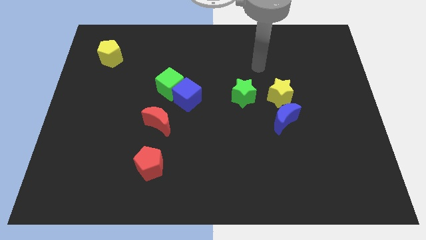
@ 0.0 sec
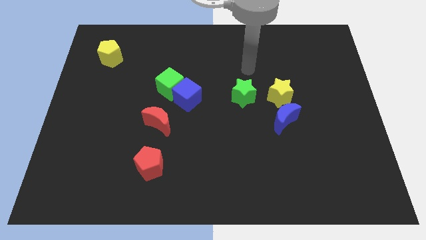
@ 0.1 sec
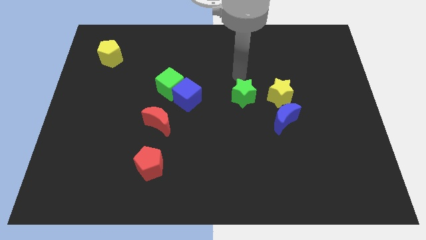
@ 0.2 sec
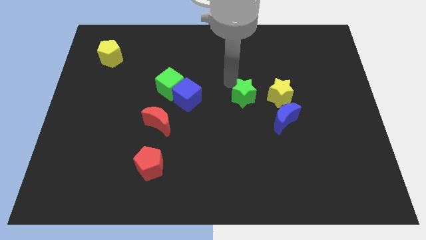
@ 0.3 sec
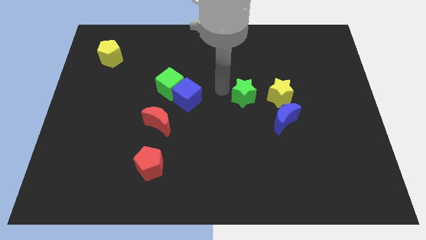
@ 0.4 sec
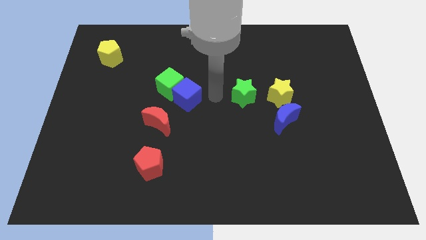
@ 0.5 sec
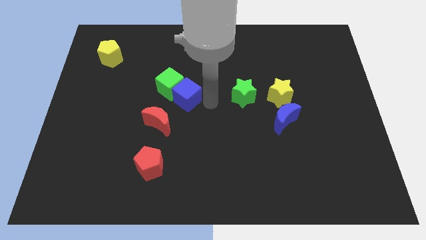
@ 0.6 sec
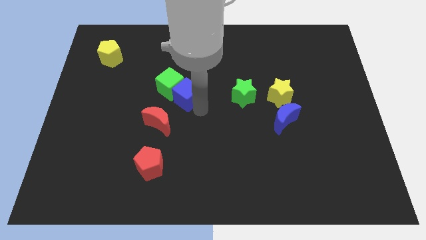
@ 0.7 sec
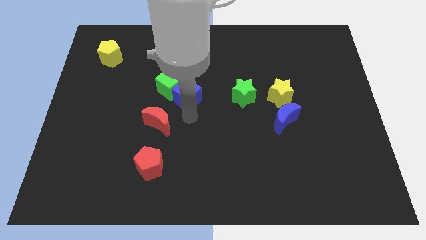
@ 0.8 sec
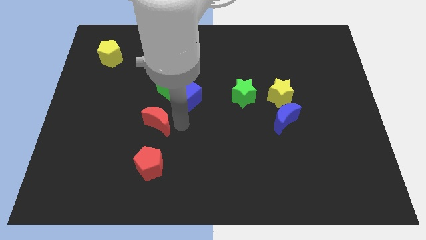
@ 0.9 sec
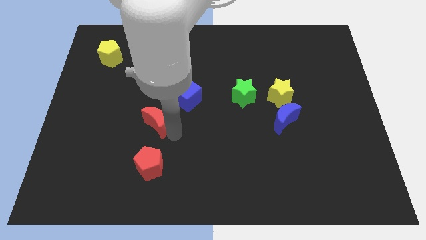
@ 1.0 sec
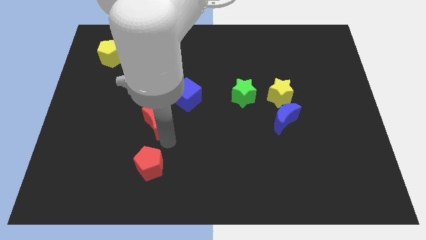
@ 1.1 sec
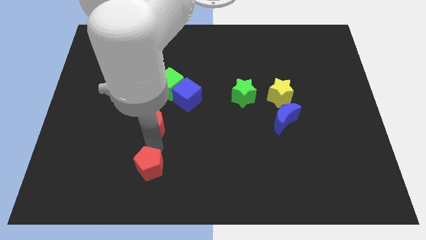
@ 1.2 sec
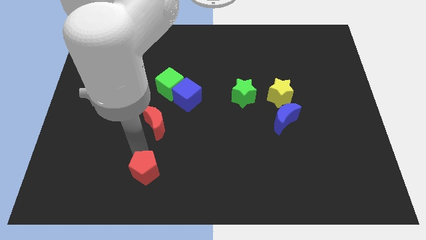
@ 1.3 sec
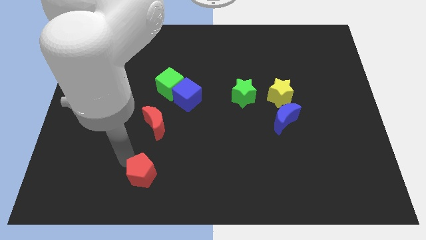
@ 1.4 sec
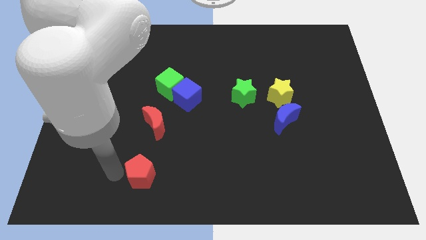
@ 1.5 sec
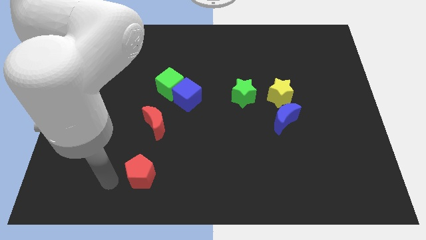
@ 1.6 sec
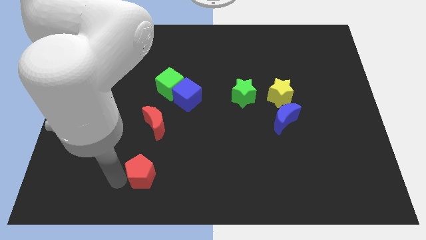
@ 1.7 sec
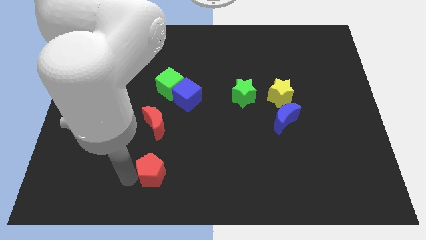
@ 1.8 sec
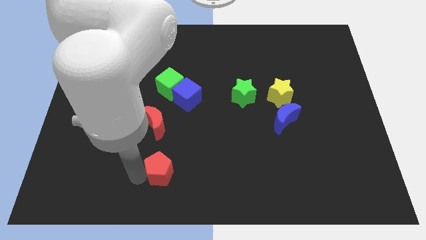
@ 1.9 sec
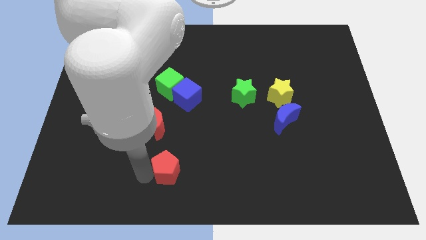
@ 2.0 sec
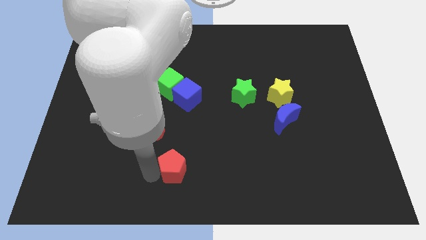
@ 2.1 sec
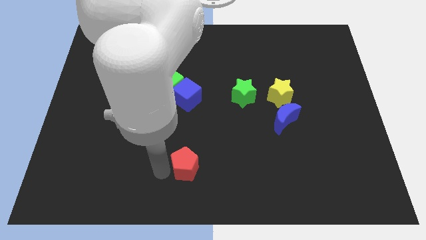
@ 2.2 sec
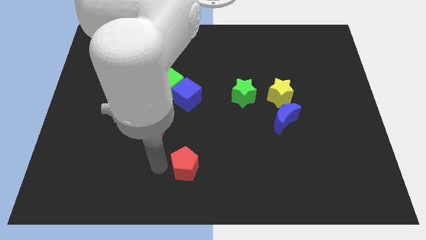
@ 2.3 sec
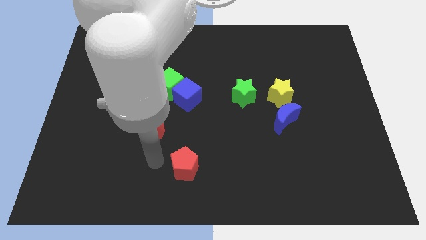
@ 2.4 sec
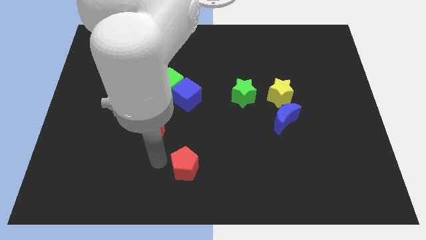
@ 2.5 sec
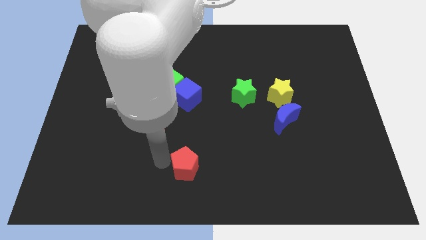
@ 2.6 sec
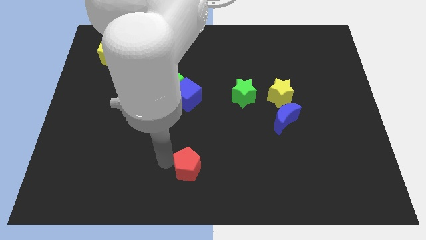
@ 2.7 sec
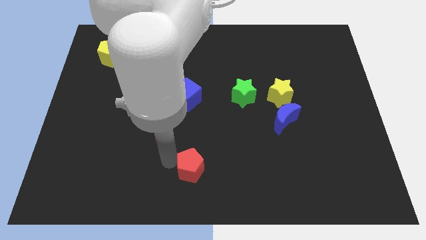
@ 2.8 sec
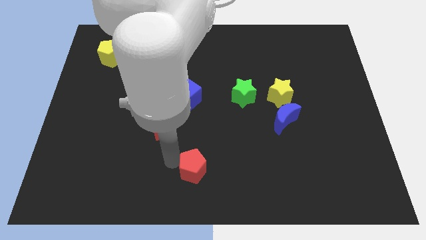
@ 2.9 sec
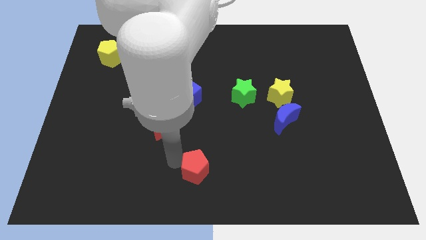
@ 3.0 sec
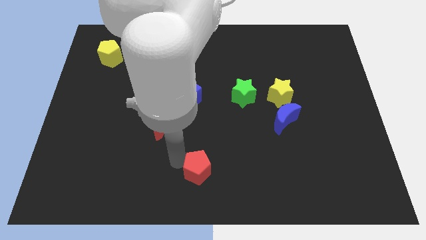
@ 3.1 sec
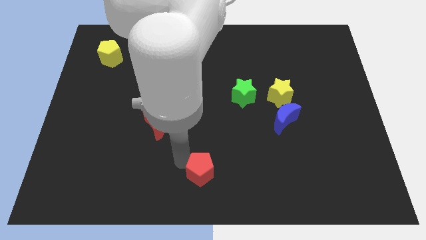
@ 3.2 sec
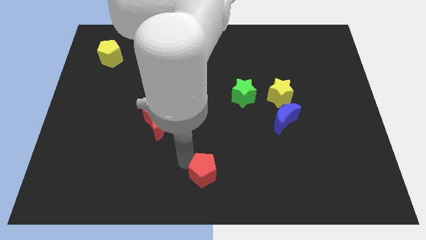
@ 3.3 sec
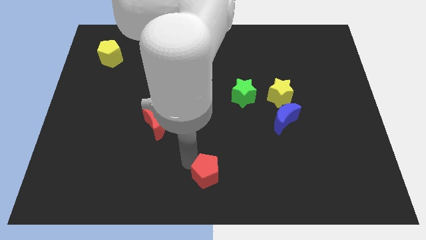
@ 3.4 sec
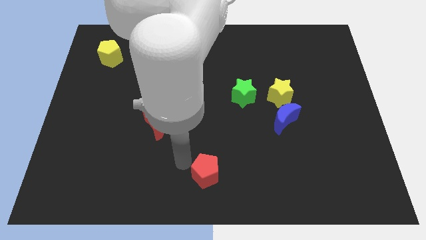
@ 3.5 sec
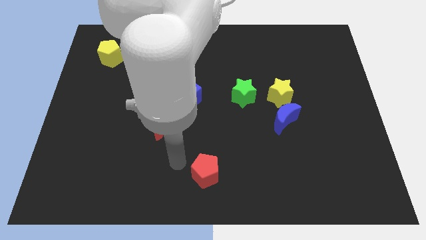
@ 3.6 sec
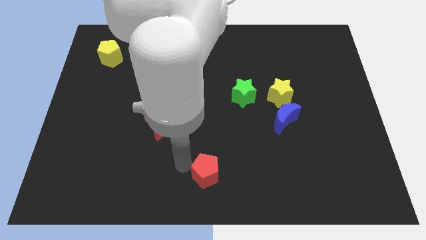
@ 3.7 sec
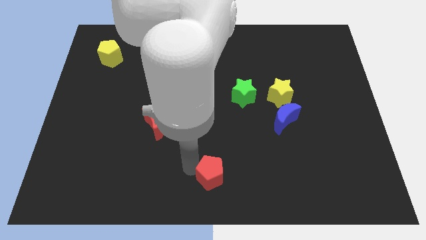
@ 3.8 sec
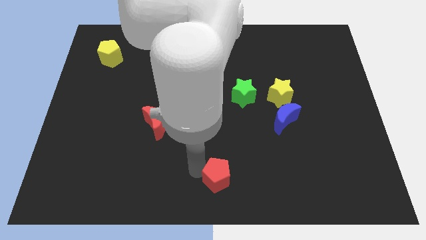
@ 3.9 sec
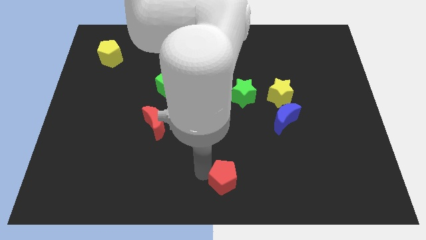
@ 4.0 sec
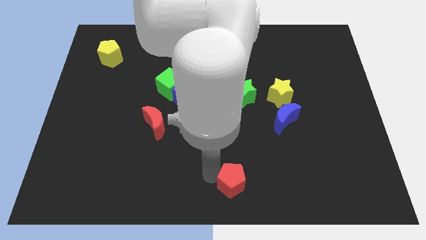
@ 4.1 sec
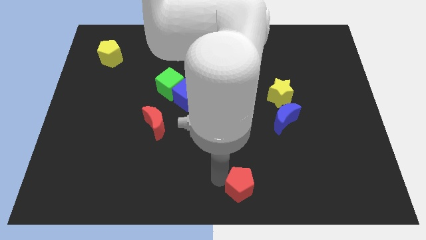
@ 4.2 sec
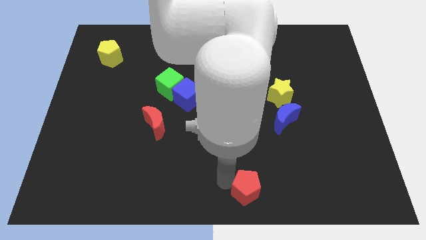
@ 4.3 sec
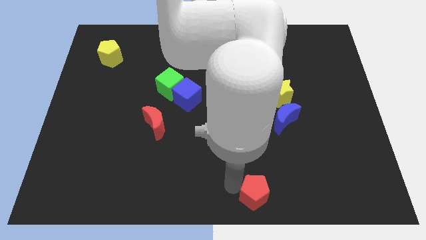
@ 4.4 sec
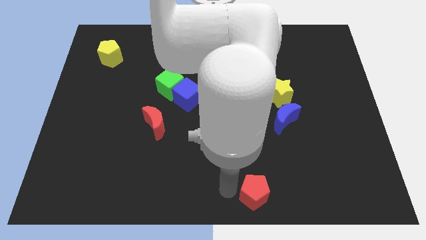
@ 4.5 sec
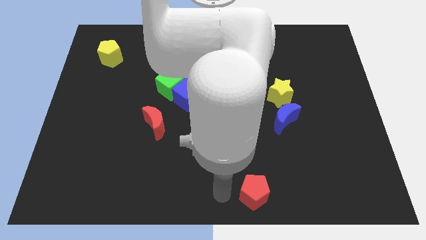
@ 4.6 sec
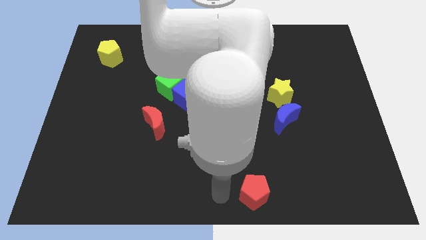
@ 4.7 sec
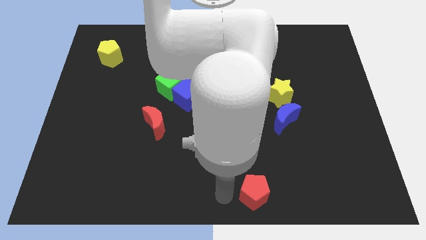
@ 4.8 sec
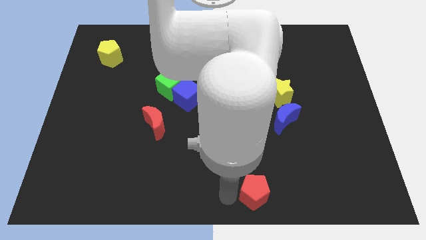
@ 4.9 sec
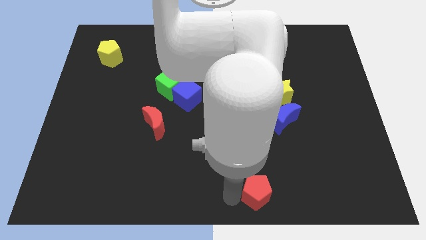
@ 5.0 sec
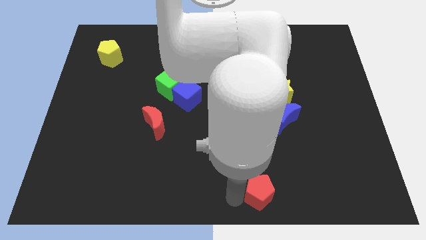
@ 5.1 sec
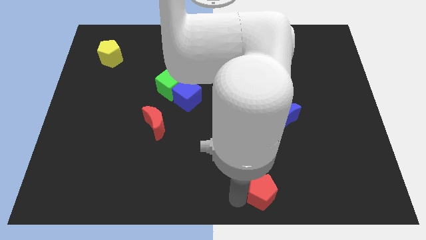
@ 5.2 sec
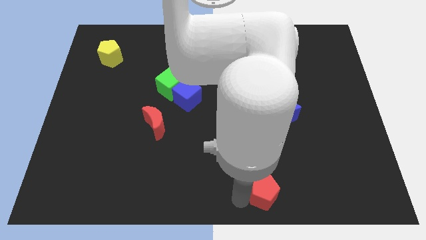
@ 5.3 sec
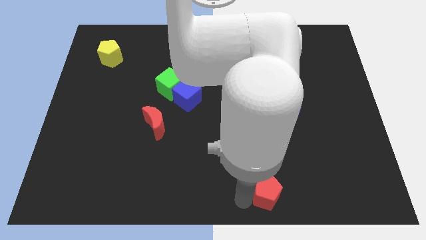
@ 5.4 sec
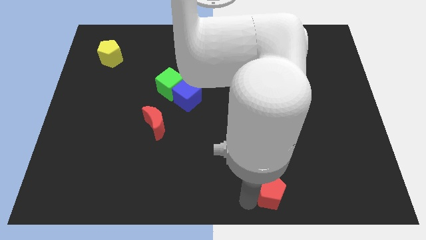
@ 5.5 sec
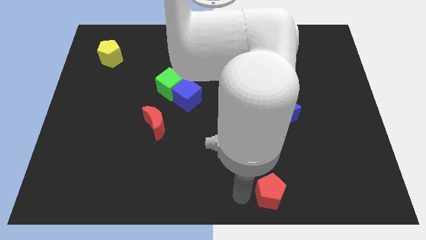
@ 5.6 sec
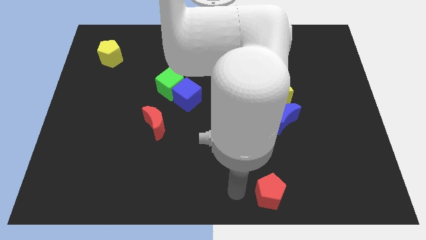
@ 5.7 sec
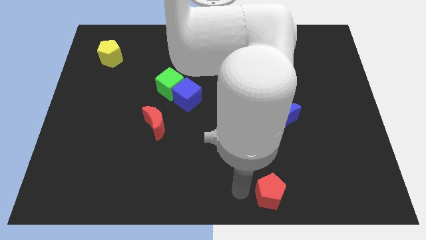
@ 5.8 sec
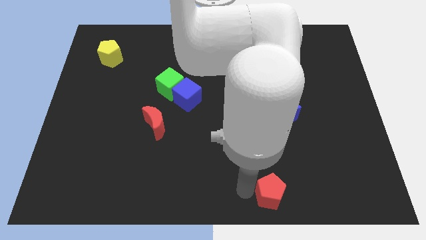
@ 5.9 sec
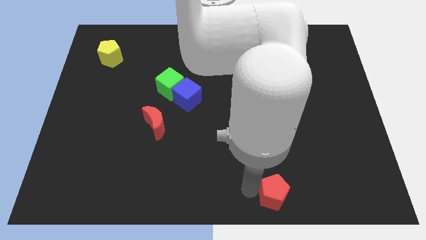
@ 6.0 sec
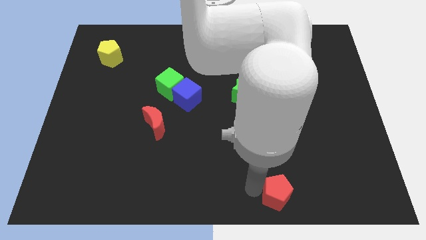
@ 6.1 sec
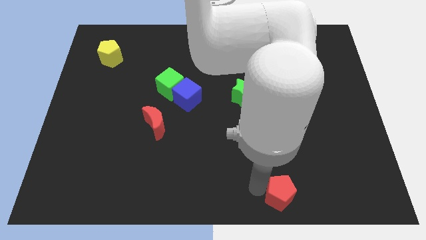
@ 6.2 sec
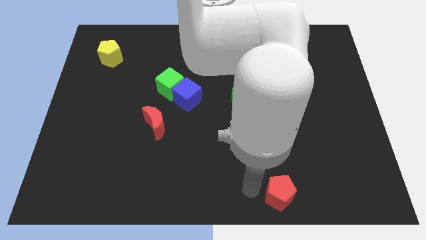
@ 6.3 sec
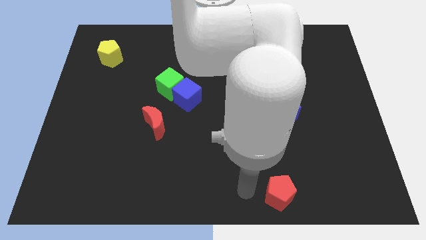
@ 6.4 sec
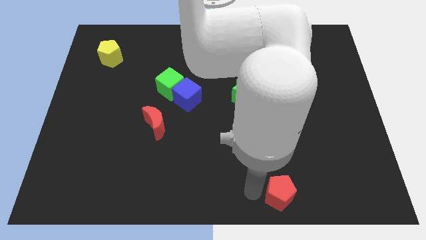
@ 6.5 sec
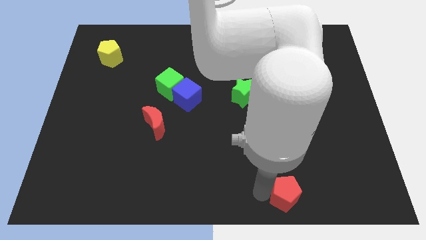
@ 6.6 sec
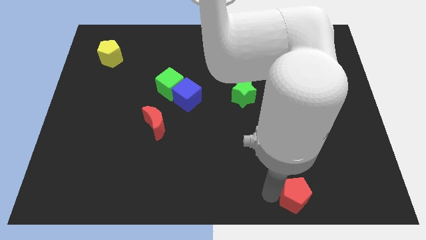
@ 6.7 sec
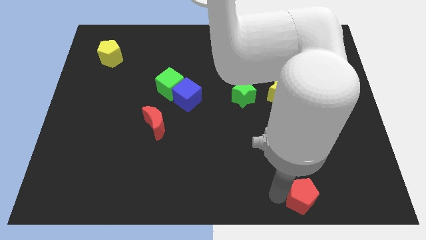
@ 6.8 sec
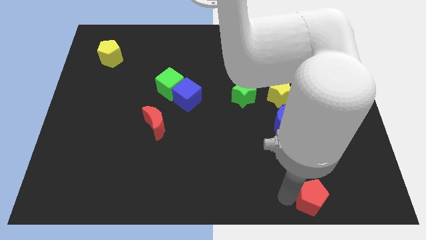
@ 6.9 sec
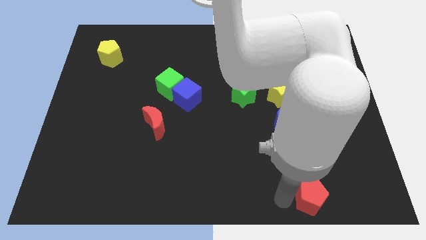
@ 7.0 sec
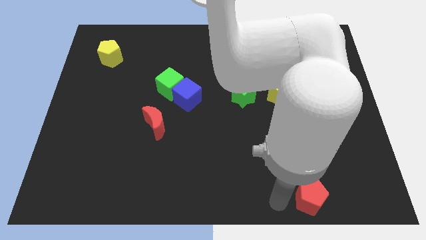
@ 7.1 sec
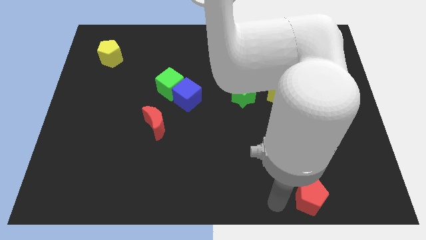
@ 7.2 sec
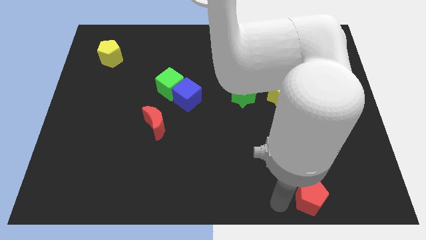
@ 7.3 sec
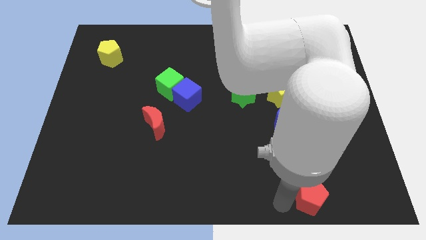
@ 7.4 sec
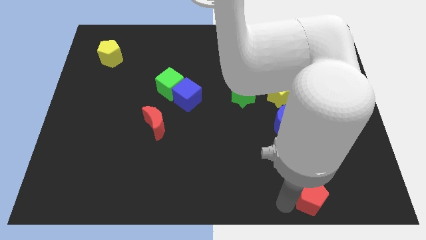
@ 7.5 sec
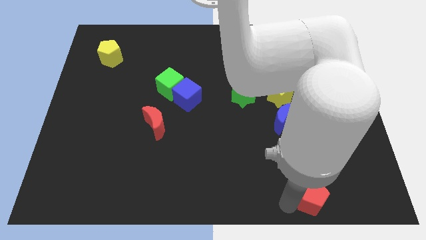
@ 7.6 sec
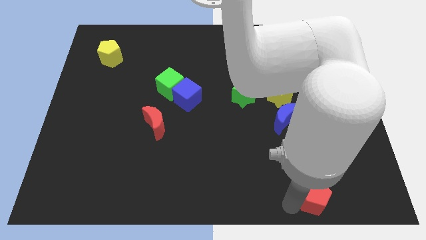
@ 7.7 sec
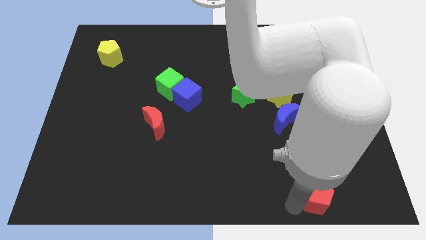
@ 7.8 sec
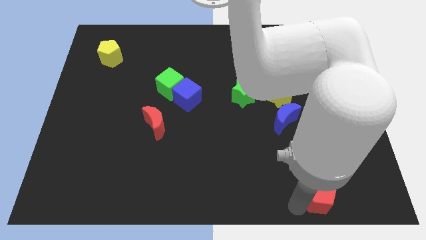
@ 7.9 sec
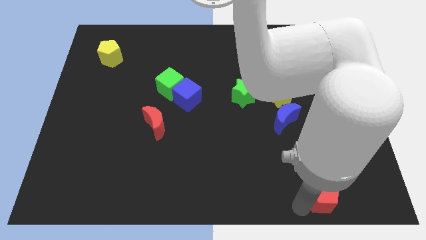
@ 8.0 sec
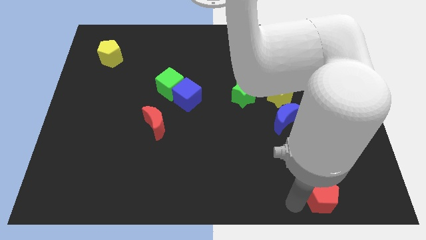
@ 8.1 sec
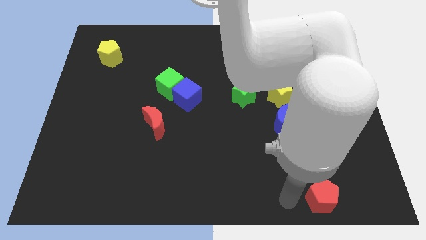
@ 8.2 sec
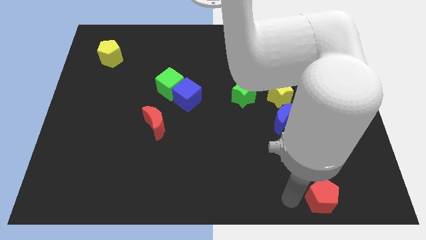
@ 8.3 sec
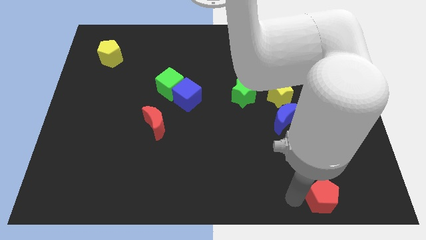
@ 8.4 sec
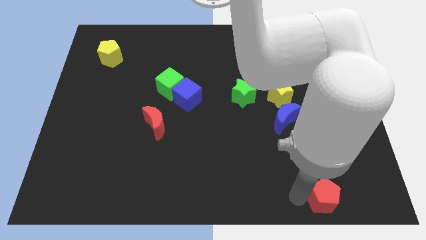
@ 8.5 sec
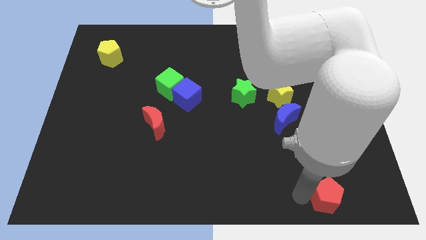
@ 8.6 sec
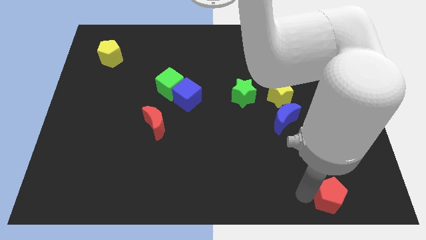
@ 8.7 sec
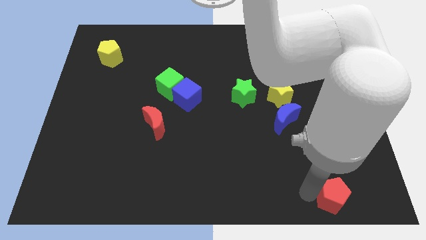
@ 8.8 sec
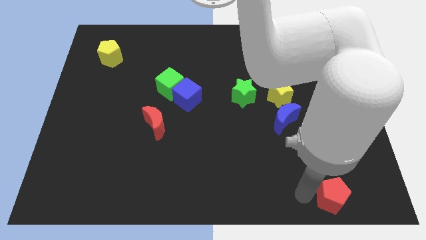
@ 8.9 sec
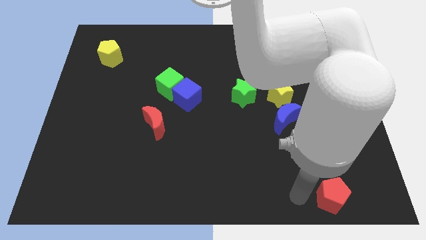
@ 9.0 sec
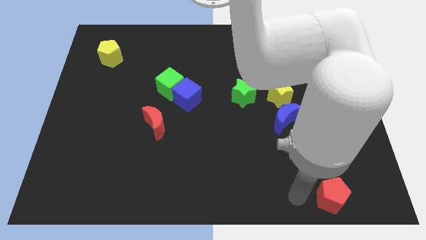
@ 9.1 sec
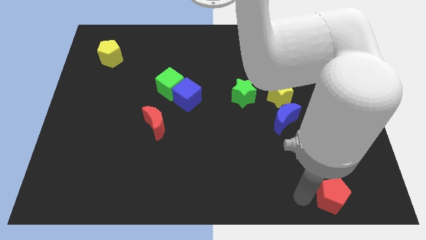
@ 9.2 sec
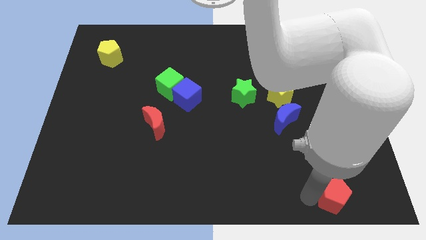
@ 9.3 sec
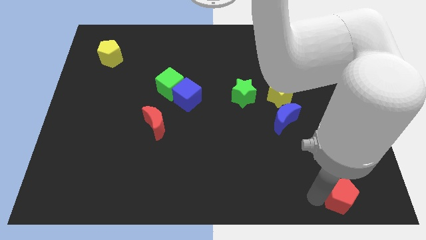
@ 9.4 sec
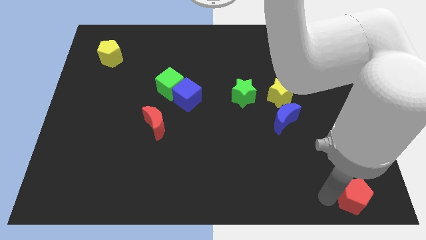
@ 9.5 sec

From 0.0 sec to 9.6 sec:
put the red pentagon to the lower right corner
